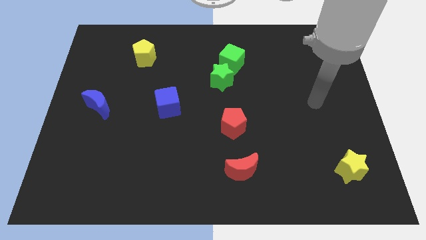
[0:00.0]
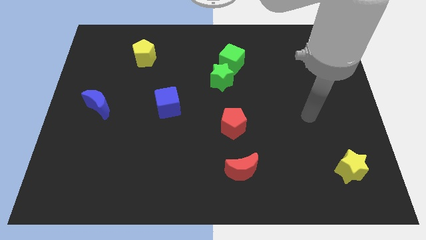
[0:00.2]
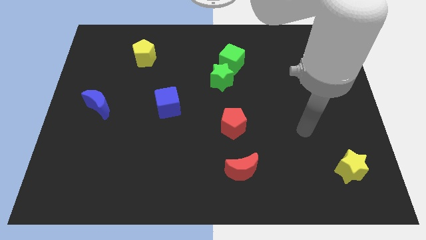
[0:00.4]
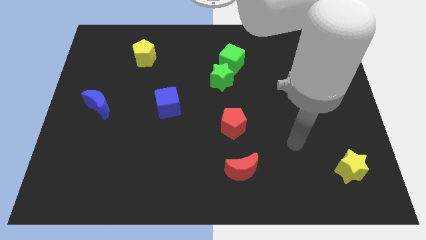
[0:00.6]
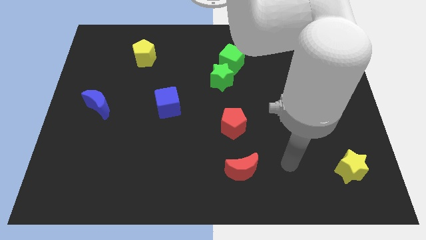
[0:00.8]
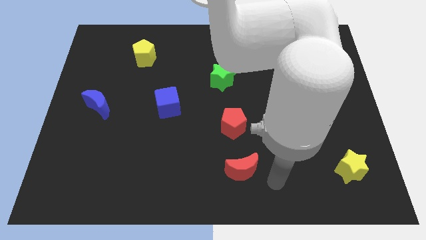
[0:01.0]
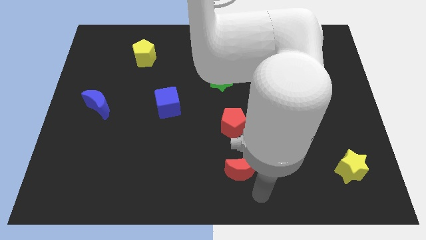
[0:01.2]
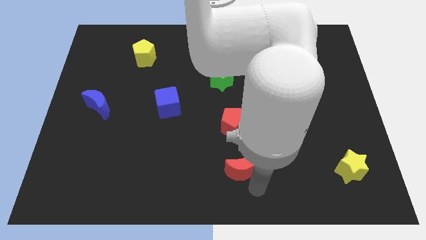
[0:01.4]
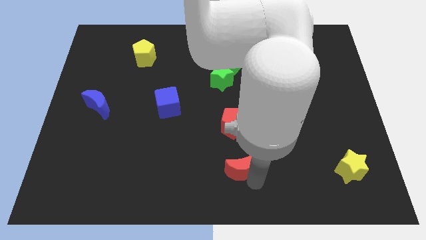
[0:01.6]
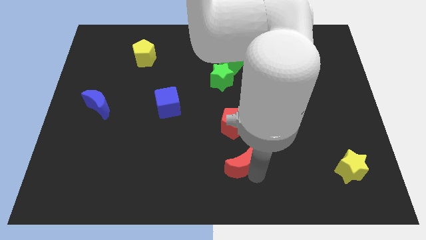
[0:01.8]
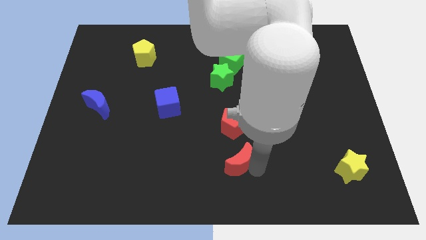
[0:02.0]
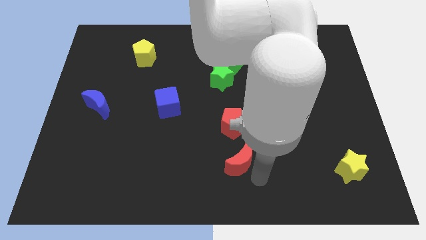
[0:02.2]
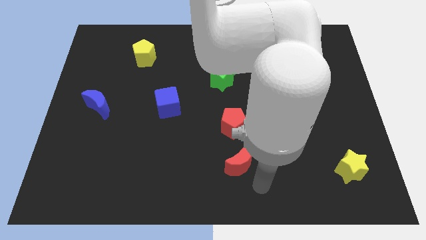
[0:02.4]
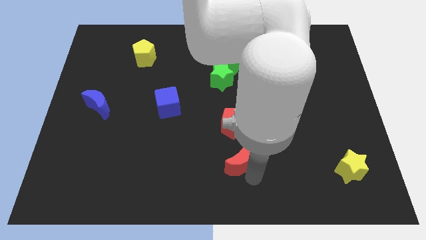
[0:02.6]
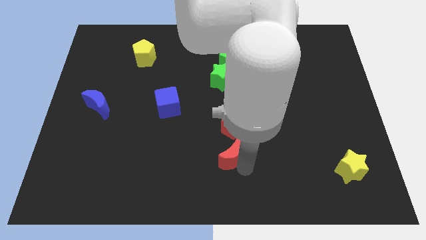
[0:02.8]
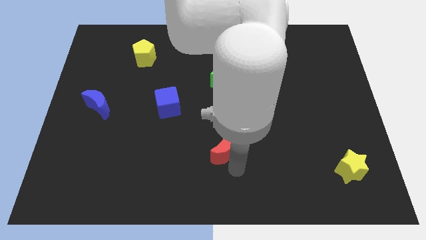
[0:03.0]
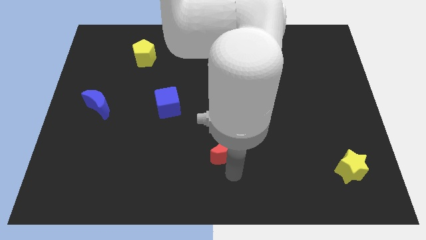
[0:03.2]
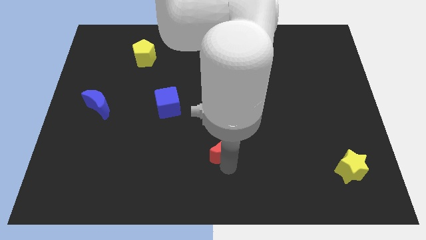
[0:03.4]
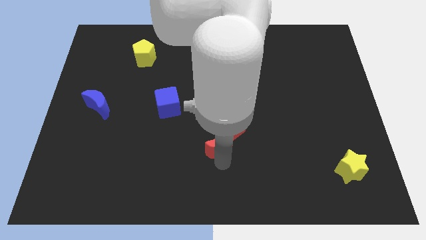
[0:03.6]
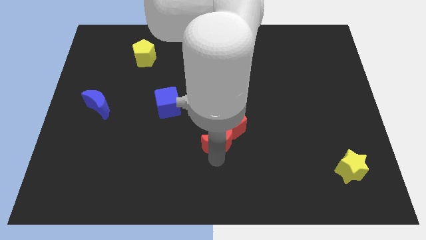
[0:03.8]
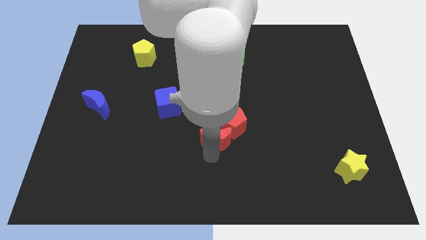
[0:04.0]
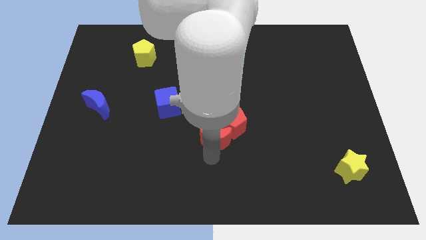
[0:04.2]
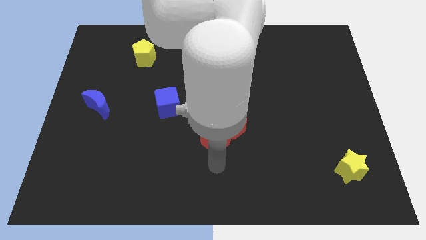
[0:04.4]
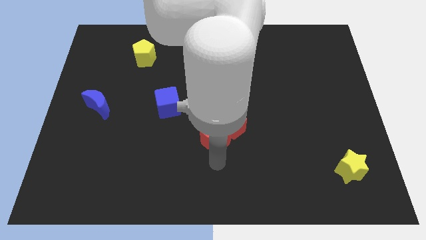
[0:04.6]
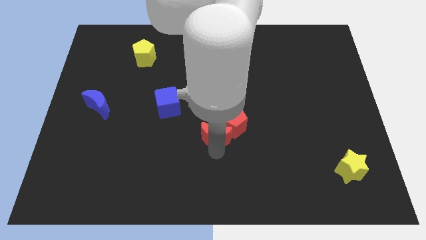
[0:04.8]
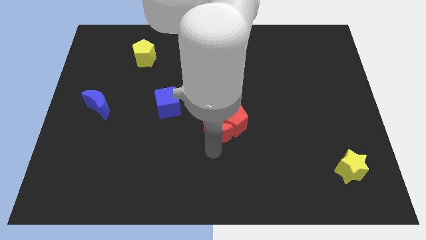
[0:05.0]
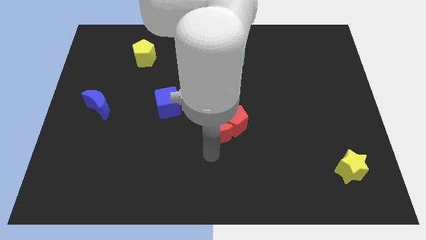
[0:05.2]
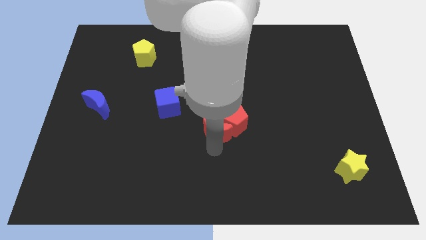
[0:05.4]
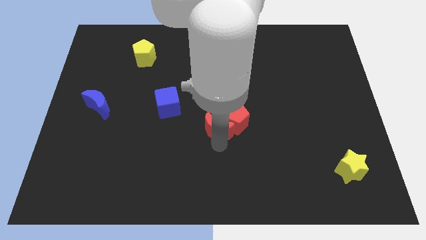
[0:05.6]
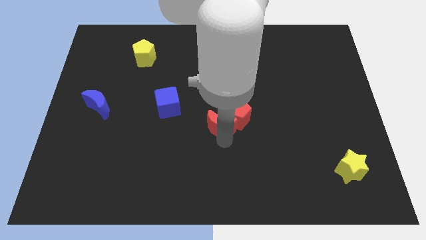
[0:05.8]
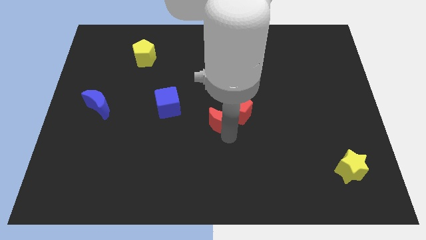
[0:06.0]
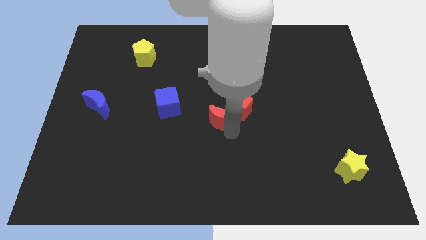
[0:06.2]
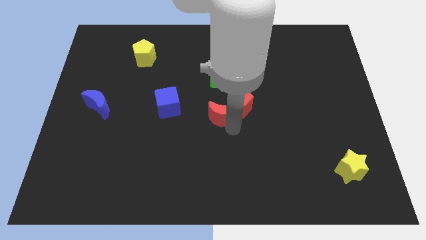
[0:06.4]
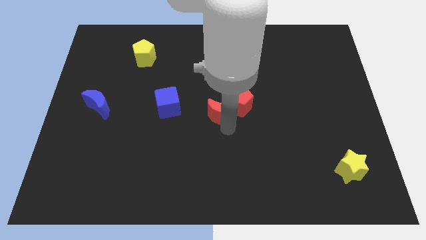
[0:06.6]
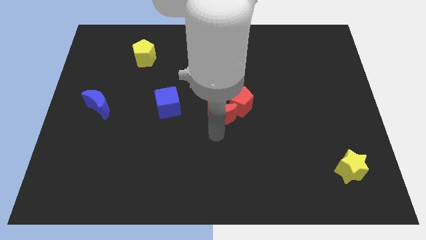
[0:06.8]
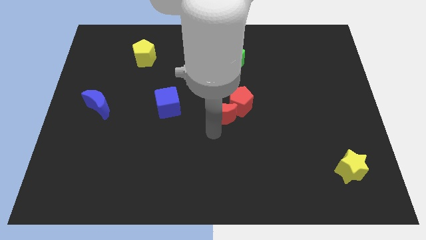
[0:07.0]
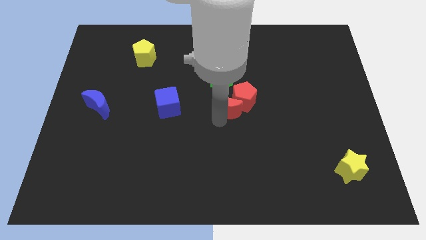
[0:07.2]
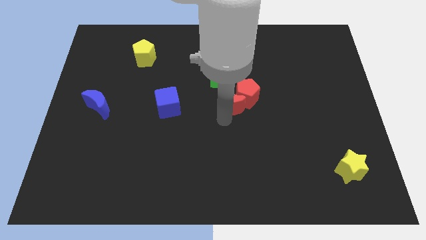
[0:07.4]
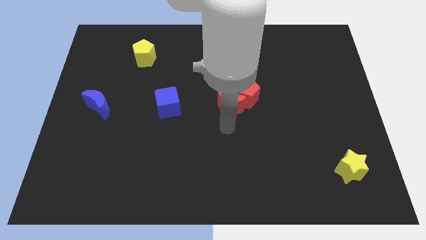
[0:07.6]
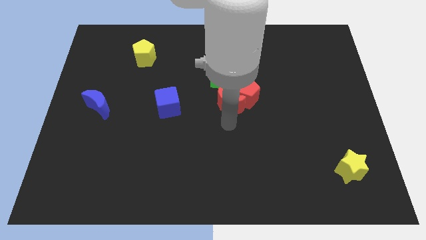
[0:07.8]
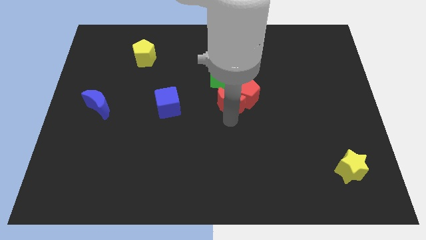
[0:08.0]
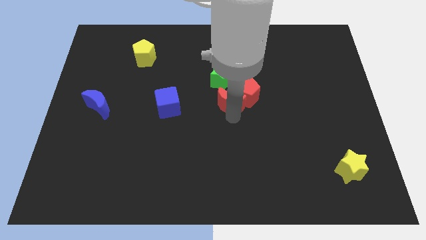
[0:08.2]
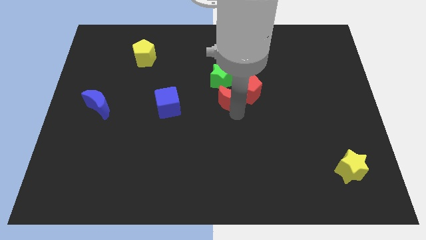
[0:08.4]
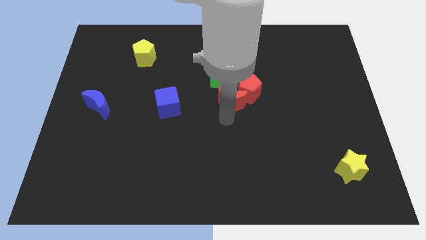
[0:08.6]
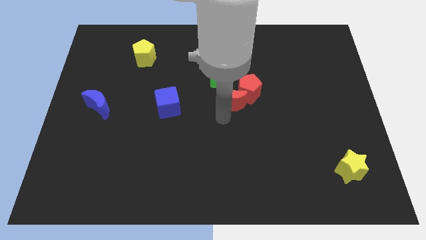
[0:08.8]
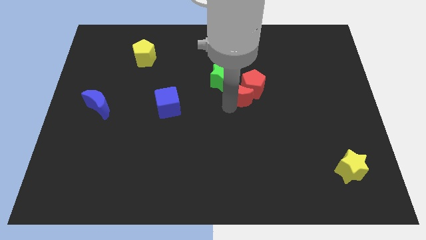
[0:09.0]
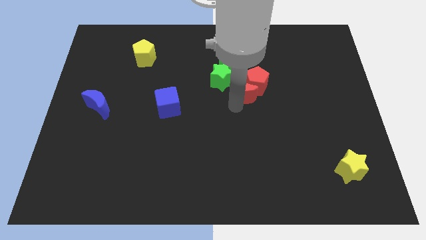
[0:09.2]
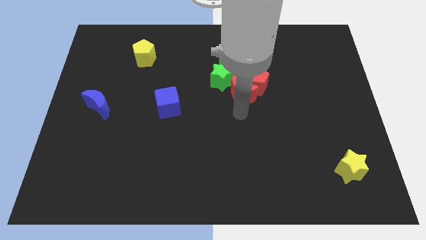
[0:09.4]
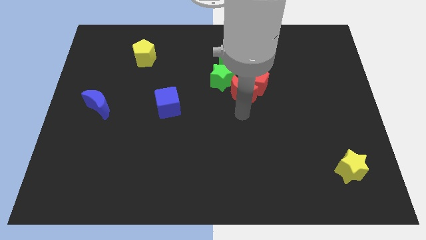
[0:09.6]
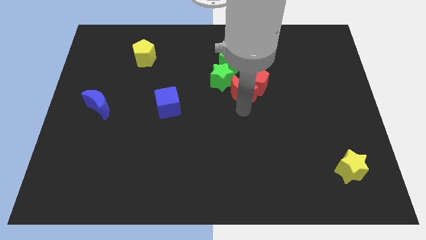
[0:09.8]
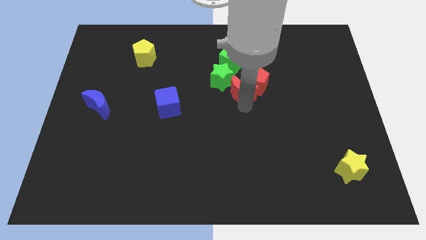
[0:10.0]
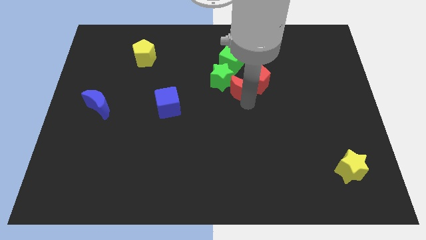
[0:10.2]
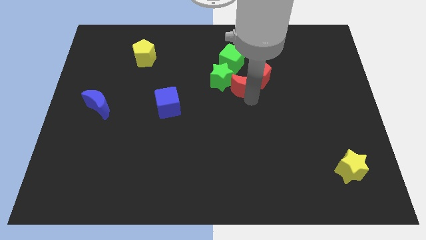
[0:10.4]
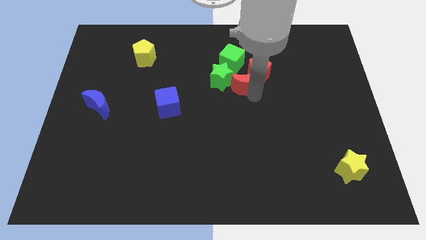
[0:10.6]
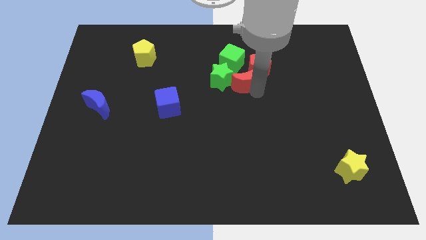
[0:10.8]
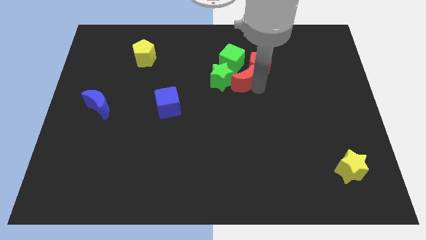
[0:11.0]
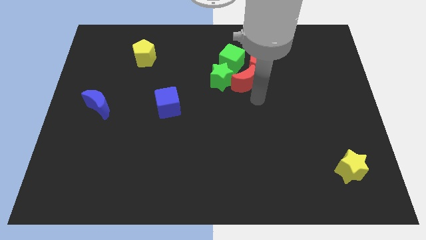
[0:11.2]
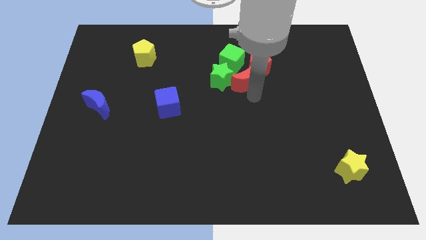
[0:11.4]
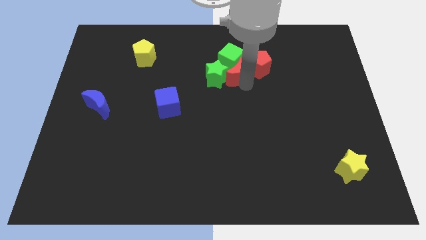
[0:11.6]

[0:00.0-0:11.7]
move the red moon close to the green cube

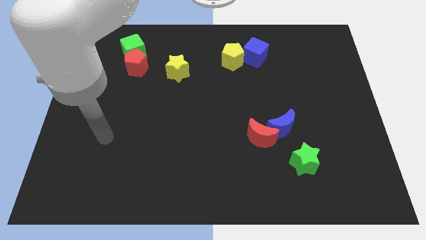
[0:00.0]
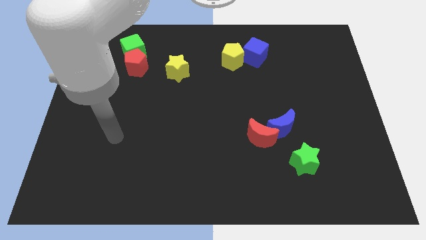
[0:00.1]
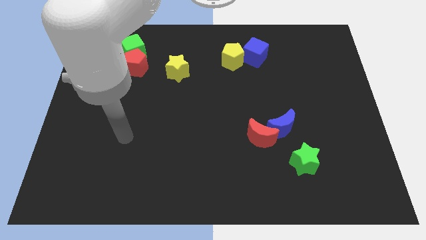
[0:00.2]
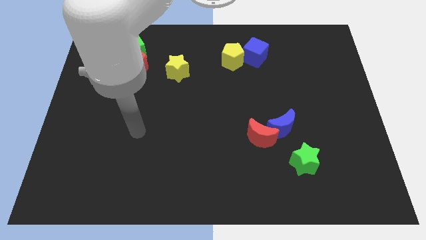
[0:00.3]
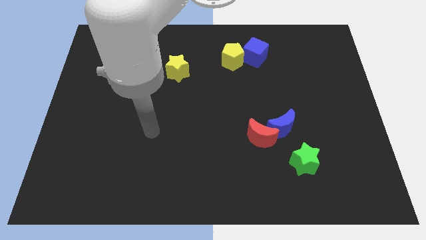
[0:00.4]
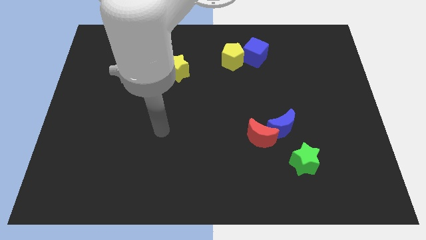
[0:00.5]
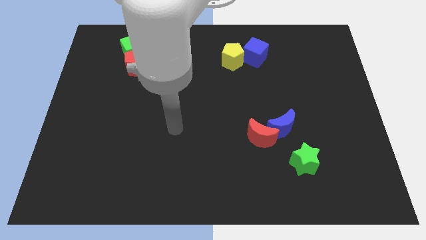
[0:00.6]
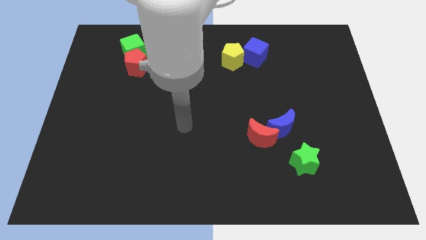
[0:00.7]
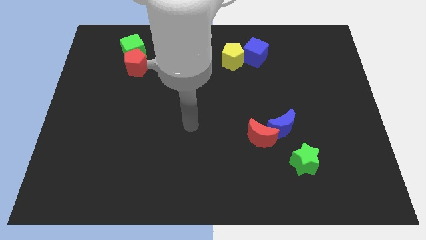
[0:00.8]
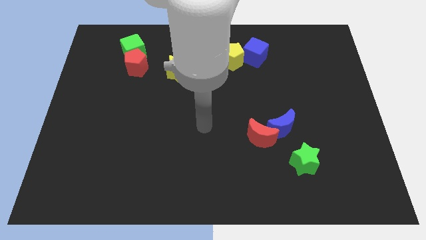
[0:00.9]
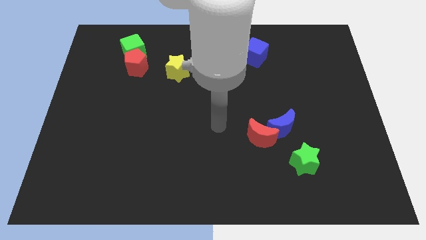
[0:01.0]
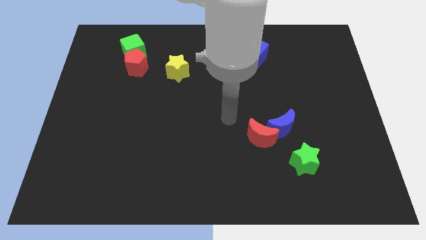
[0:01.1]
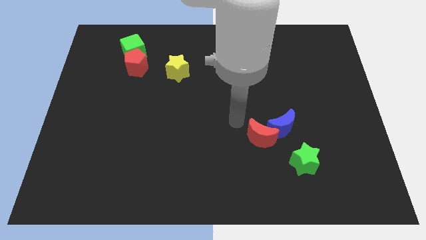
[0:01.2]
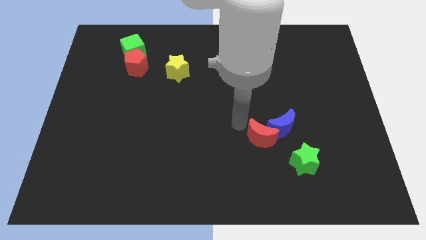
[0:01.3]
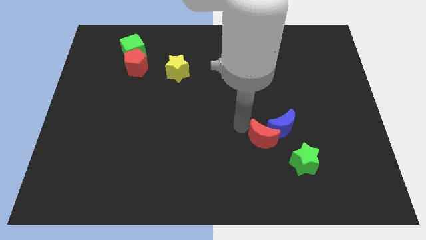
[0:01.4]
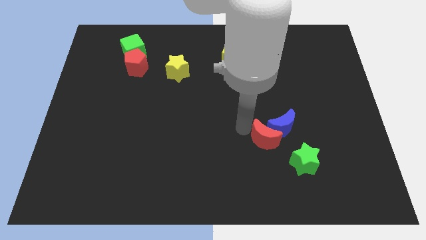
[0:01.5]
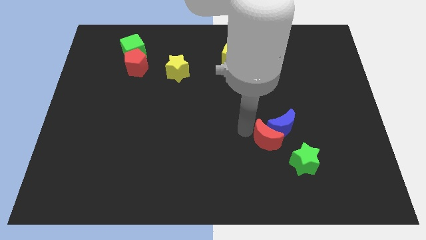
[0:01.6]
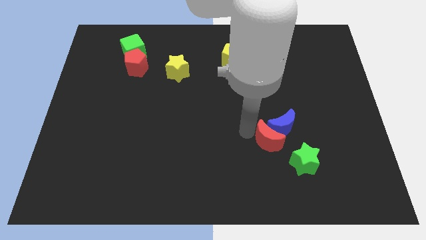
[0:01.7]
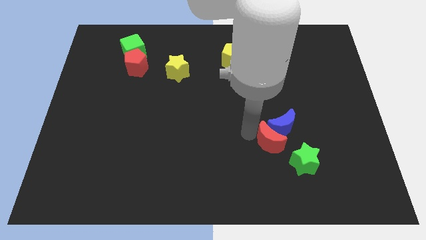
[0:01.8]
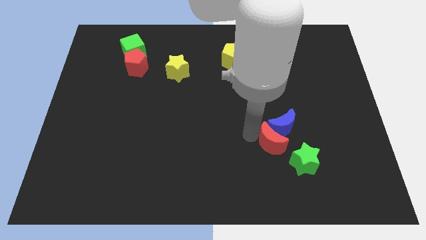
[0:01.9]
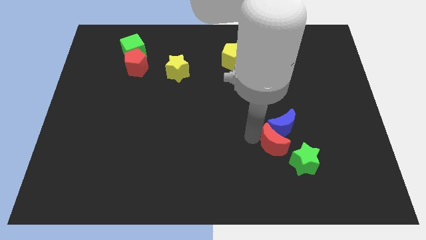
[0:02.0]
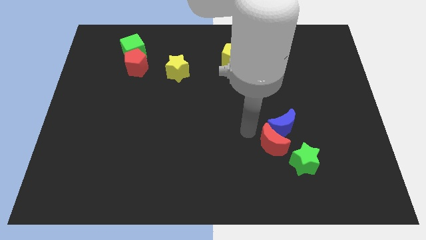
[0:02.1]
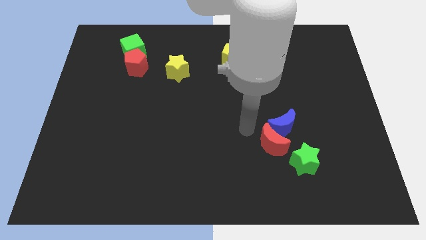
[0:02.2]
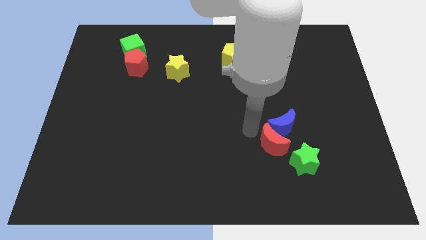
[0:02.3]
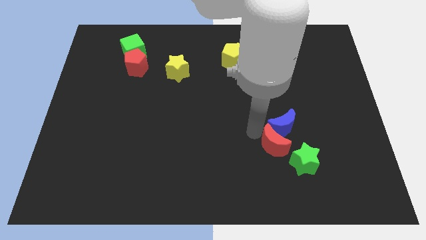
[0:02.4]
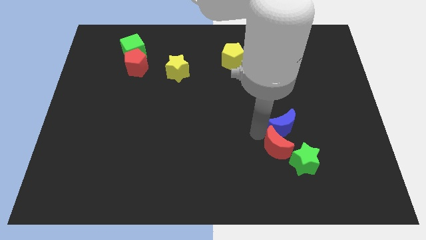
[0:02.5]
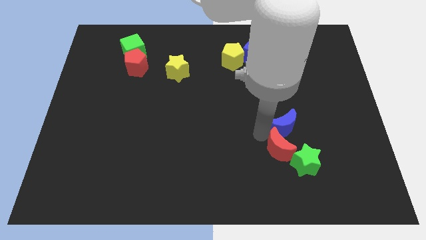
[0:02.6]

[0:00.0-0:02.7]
put the red moon close to the green star
